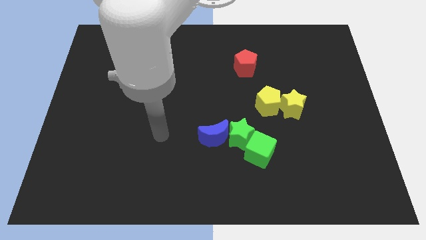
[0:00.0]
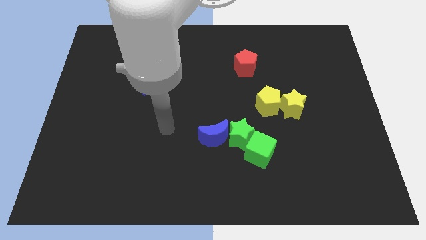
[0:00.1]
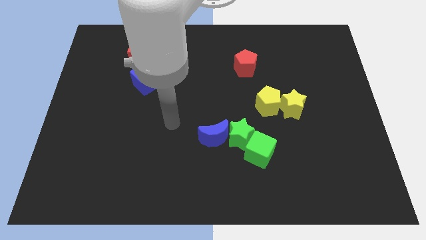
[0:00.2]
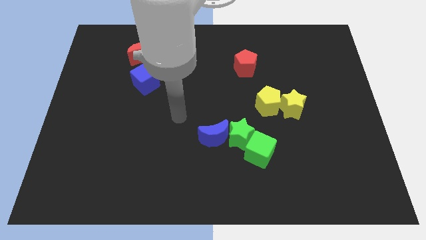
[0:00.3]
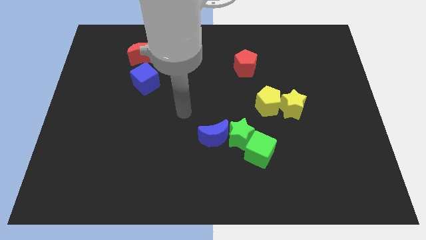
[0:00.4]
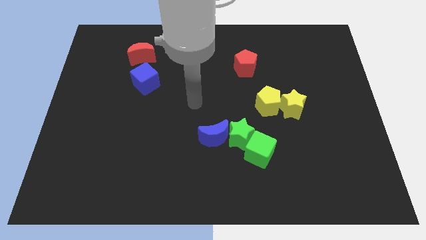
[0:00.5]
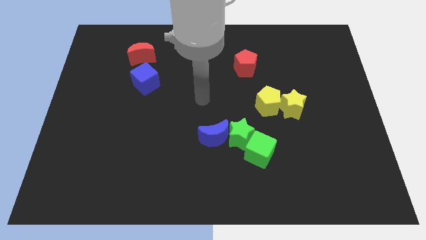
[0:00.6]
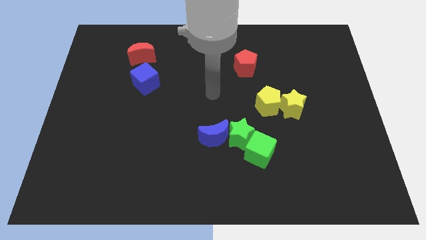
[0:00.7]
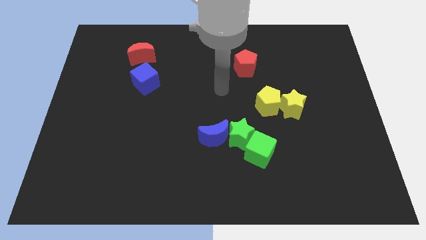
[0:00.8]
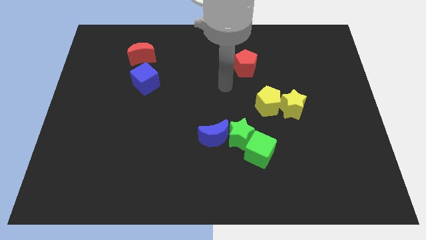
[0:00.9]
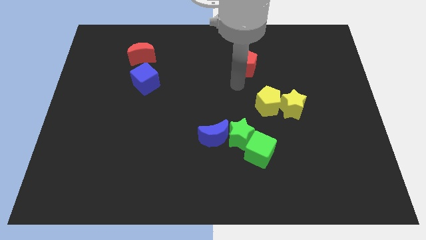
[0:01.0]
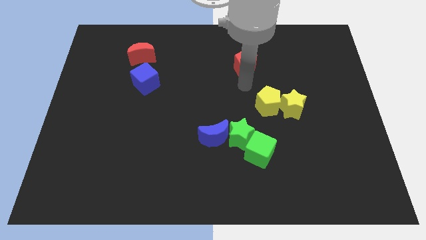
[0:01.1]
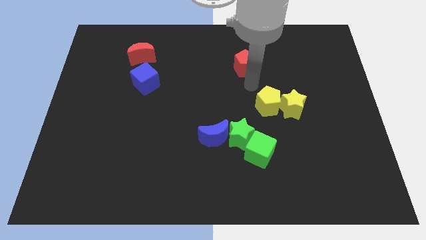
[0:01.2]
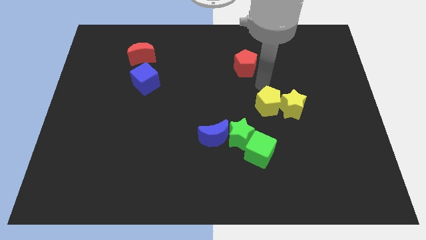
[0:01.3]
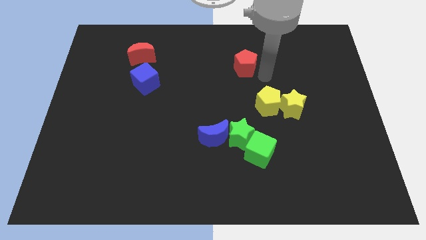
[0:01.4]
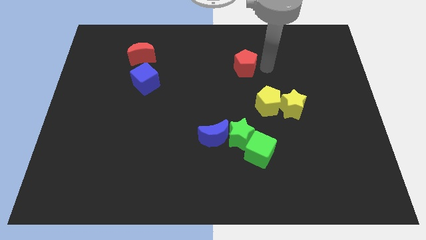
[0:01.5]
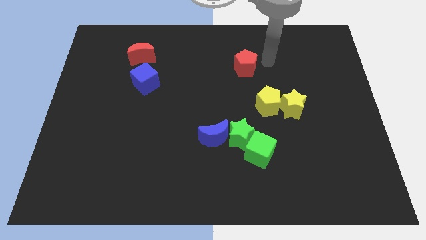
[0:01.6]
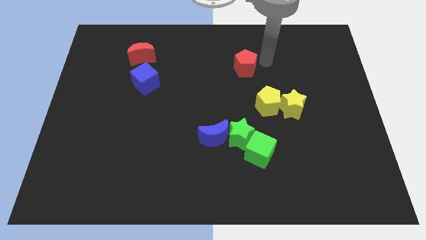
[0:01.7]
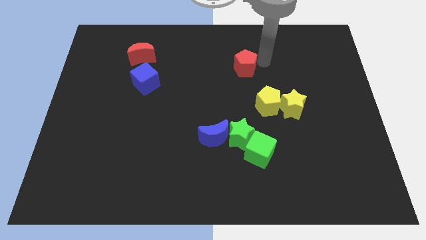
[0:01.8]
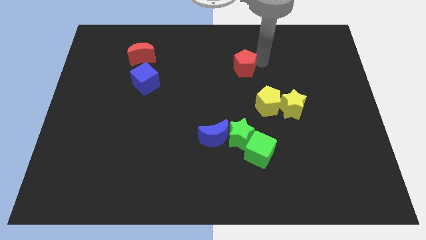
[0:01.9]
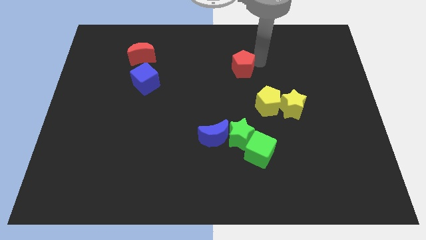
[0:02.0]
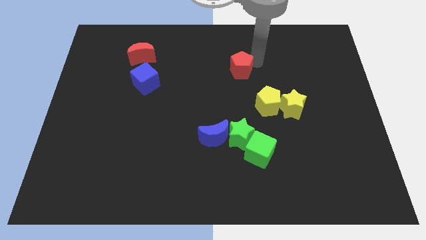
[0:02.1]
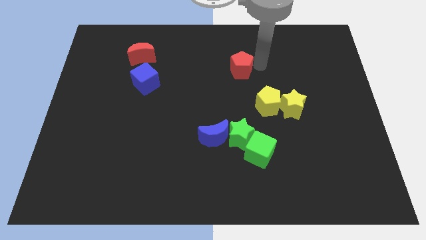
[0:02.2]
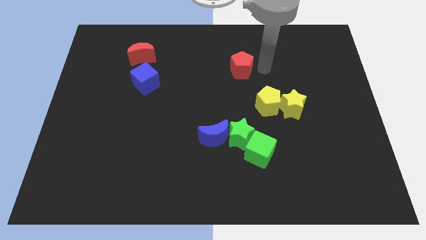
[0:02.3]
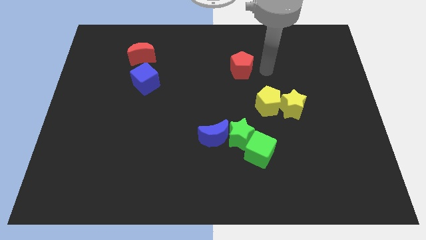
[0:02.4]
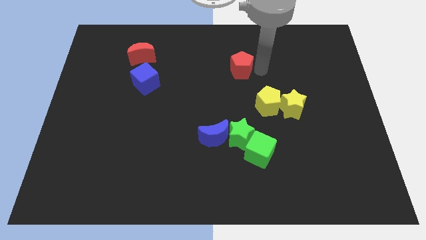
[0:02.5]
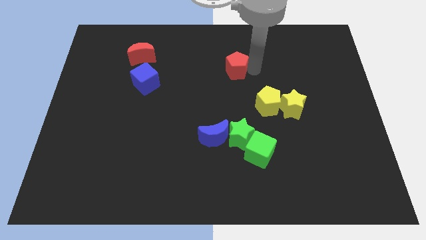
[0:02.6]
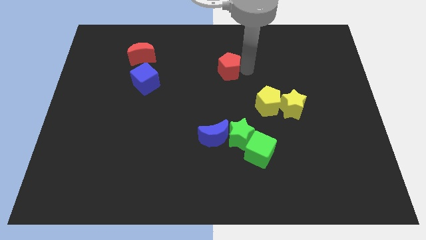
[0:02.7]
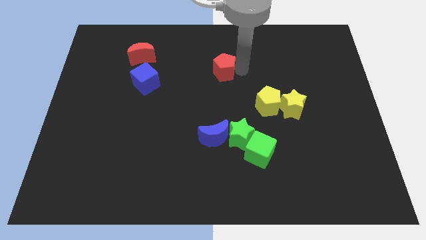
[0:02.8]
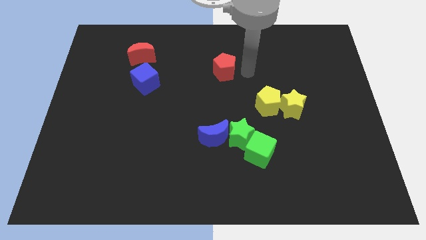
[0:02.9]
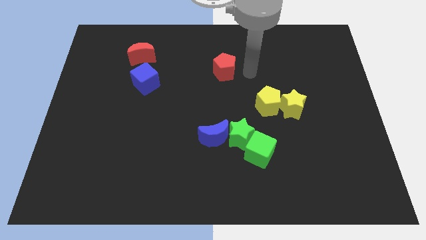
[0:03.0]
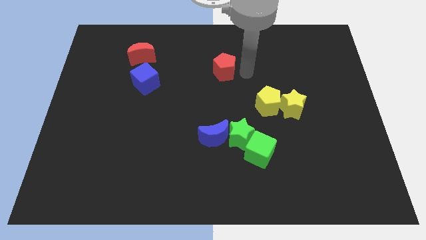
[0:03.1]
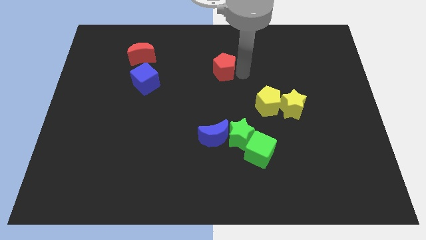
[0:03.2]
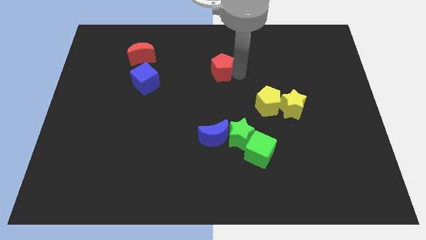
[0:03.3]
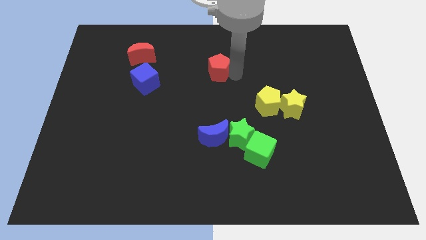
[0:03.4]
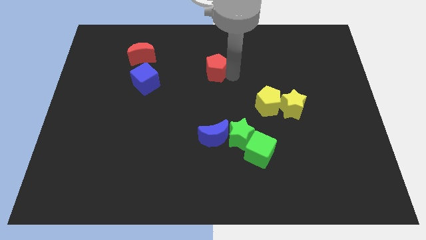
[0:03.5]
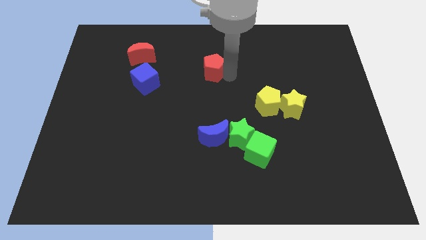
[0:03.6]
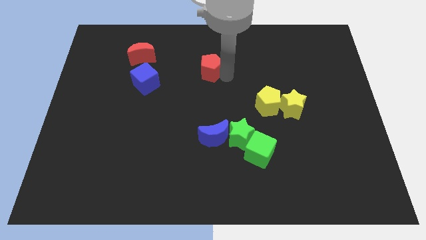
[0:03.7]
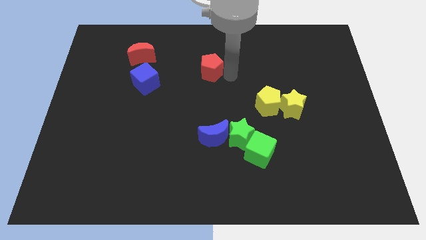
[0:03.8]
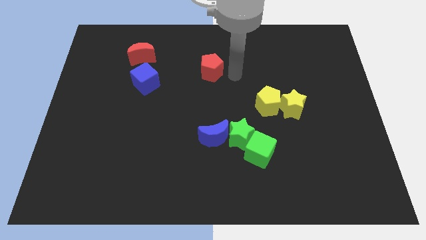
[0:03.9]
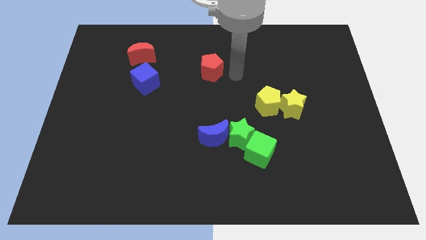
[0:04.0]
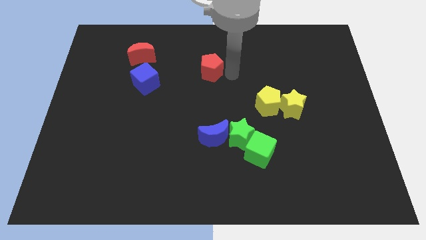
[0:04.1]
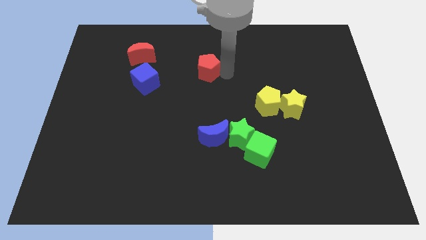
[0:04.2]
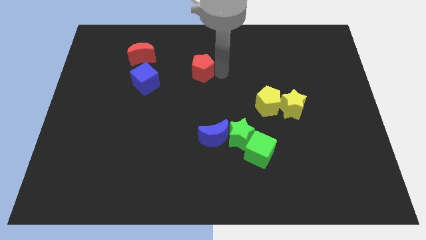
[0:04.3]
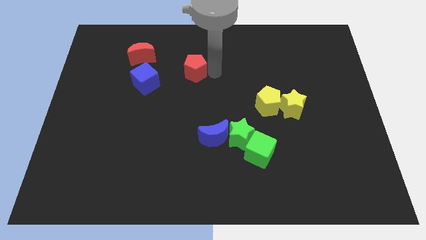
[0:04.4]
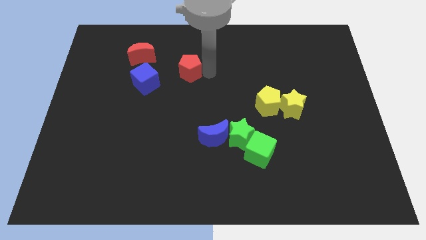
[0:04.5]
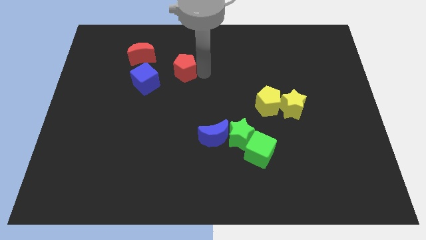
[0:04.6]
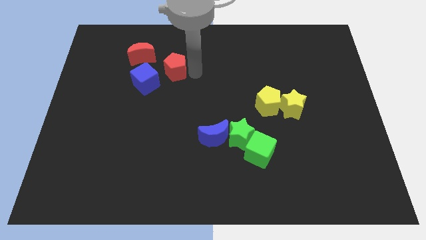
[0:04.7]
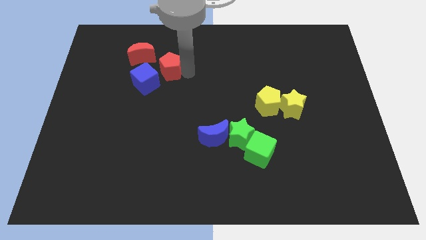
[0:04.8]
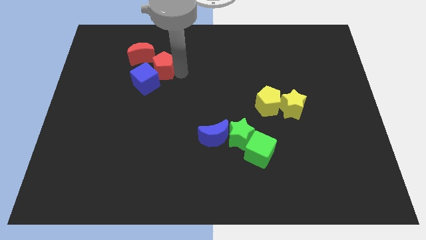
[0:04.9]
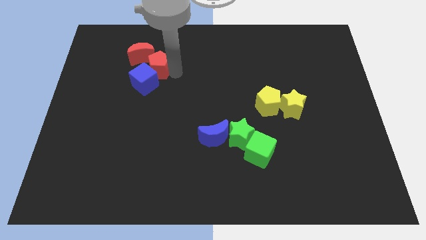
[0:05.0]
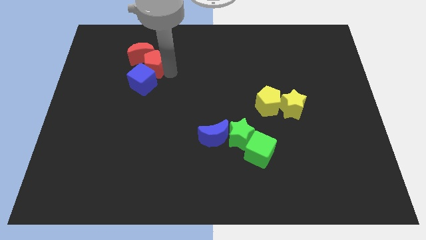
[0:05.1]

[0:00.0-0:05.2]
move the red pentagon towards the red moon

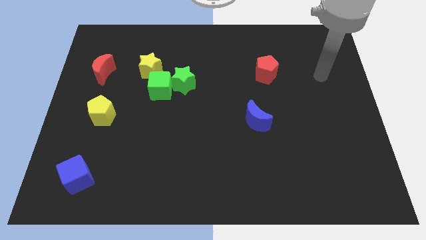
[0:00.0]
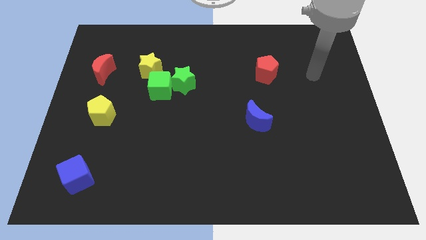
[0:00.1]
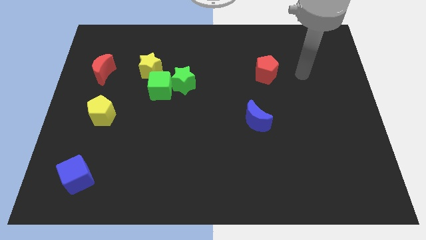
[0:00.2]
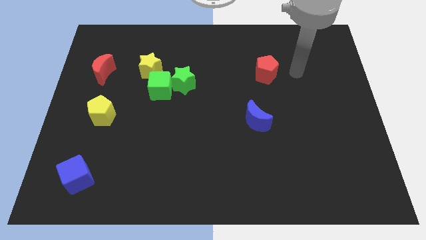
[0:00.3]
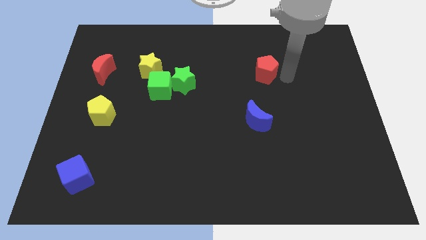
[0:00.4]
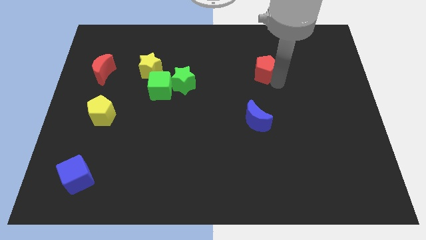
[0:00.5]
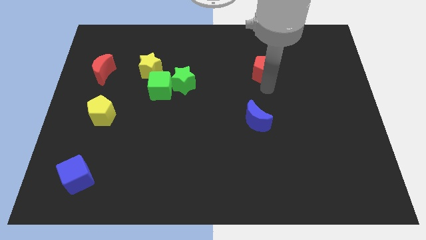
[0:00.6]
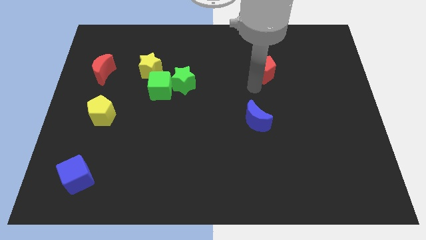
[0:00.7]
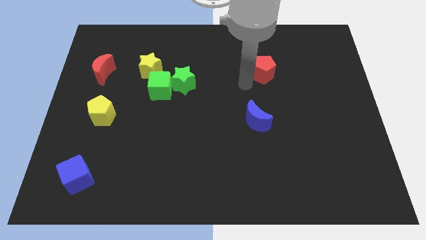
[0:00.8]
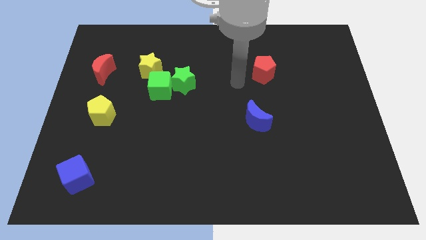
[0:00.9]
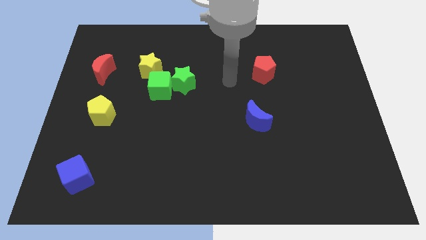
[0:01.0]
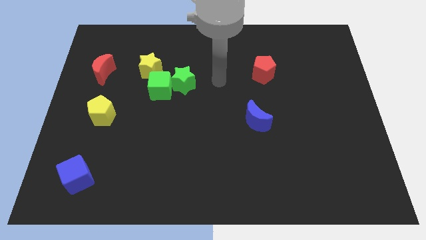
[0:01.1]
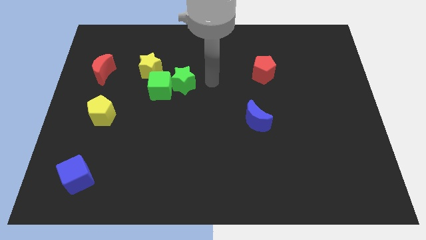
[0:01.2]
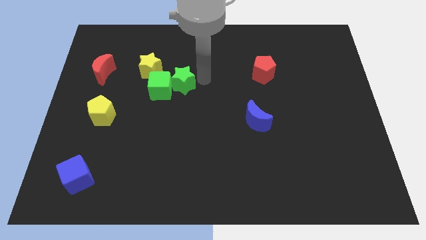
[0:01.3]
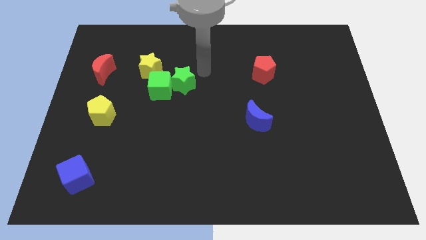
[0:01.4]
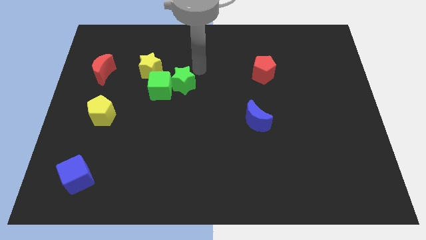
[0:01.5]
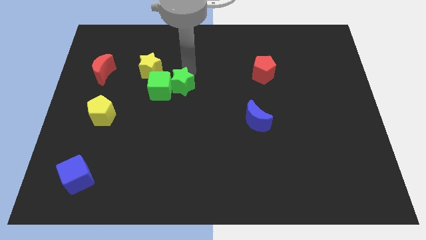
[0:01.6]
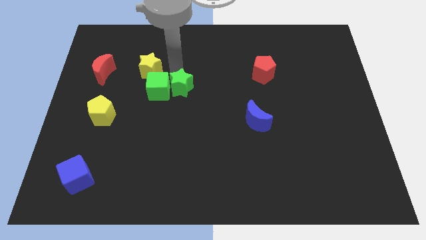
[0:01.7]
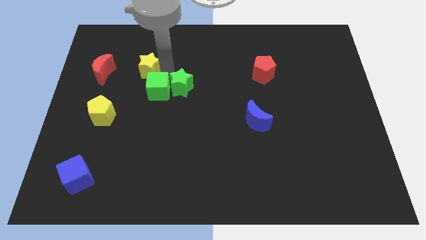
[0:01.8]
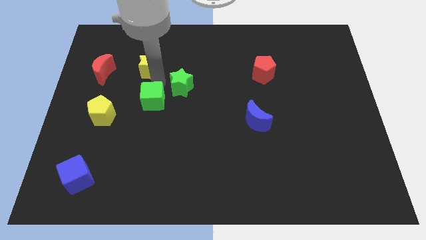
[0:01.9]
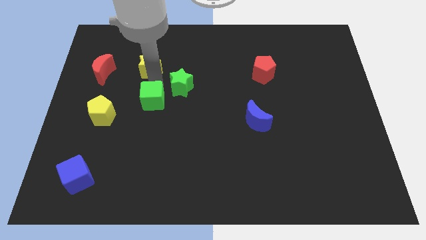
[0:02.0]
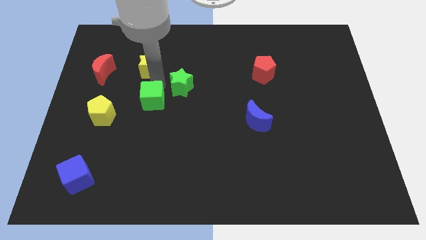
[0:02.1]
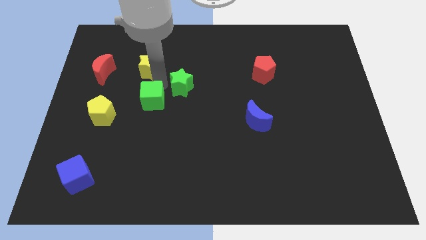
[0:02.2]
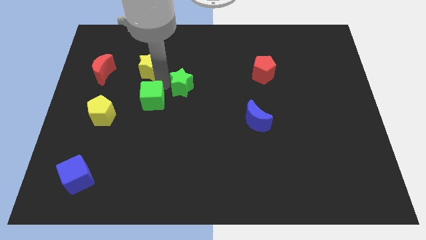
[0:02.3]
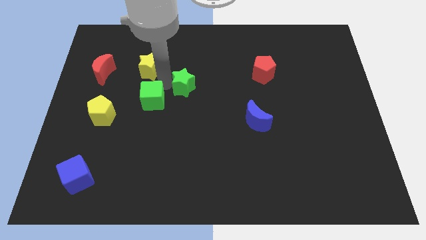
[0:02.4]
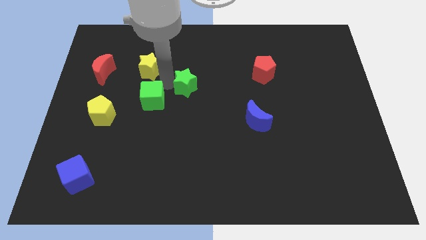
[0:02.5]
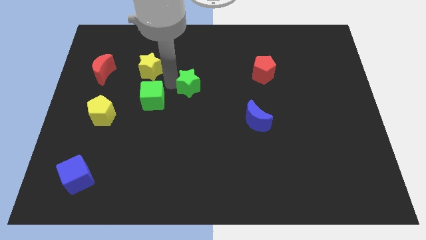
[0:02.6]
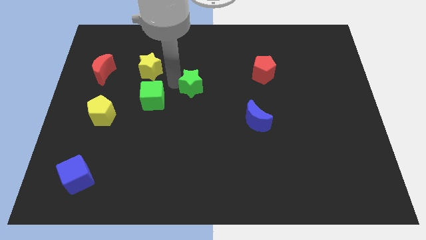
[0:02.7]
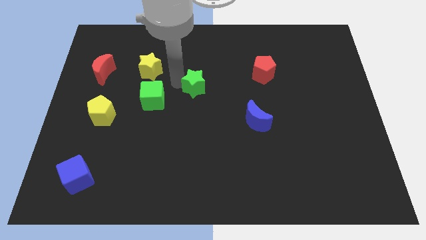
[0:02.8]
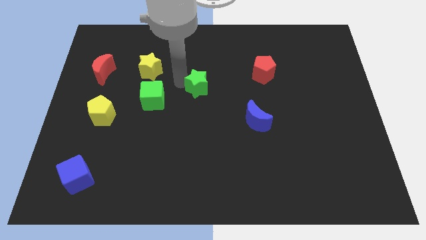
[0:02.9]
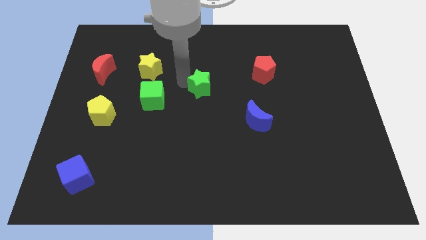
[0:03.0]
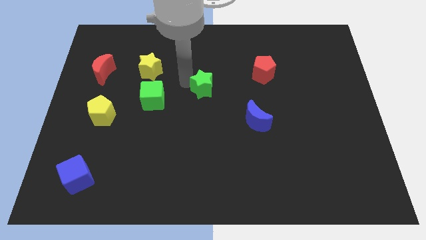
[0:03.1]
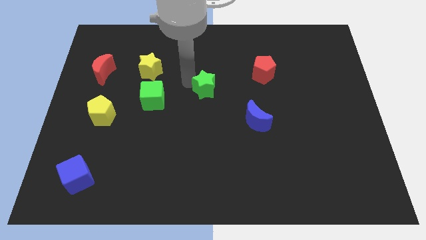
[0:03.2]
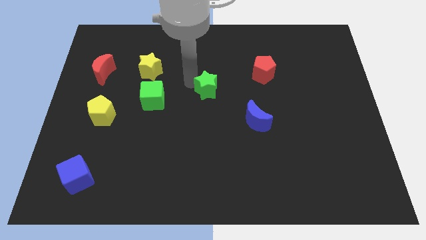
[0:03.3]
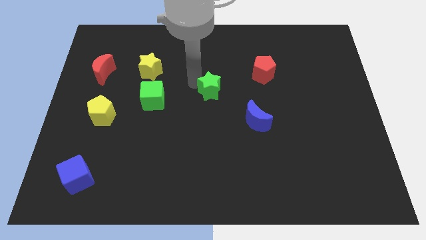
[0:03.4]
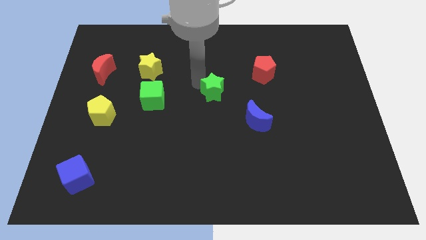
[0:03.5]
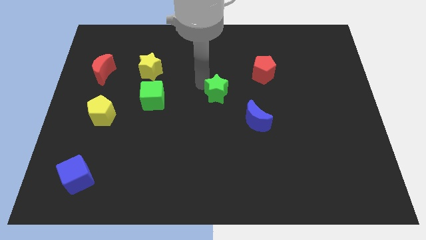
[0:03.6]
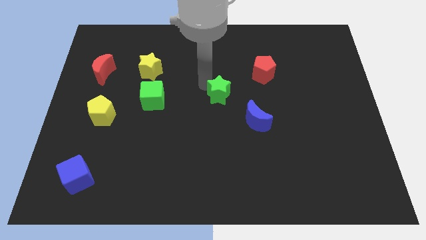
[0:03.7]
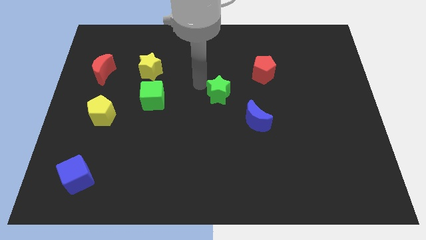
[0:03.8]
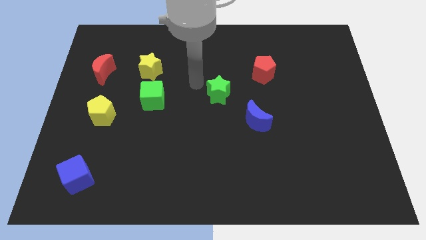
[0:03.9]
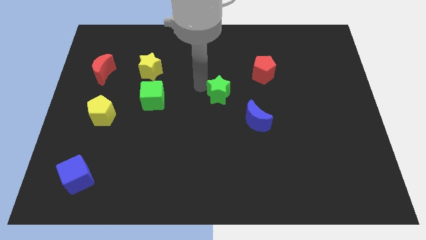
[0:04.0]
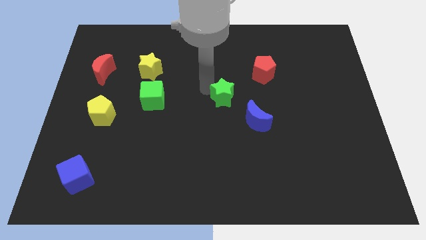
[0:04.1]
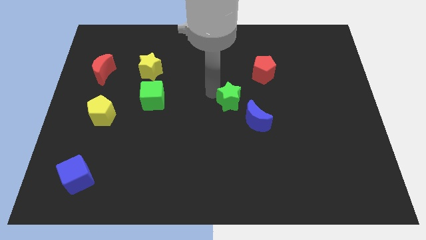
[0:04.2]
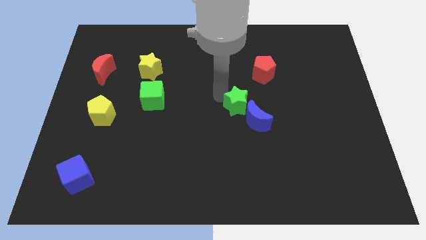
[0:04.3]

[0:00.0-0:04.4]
put the green star to the blue moon
